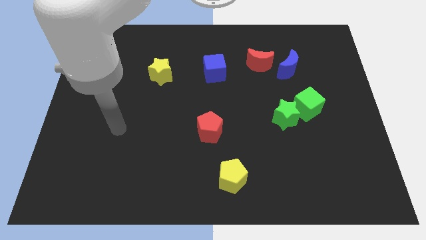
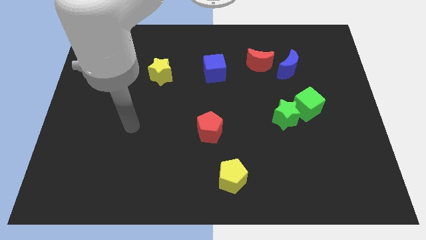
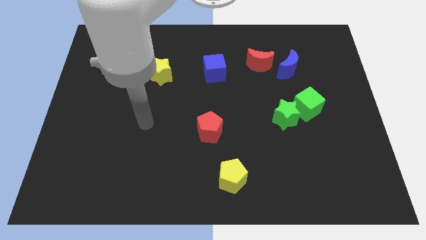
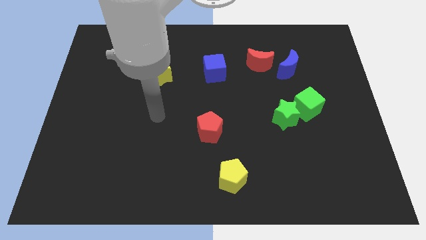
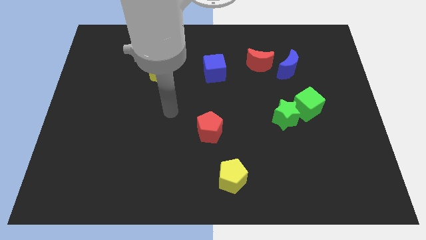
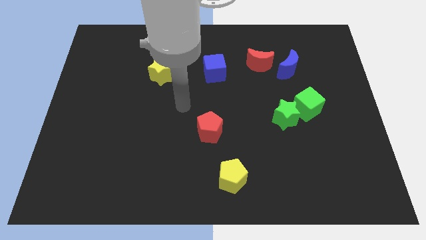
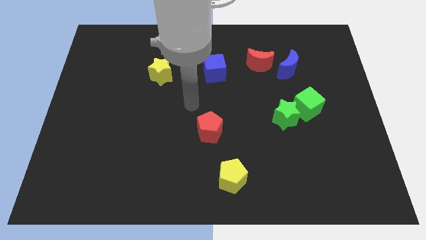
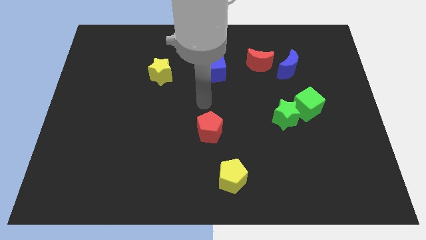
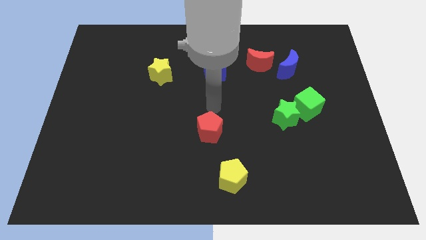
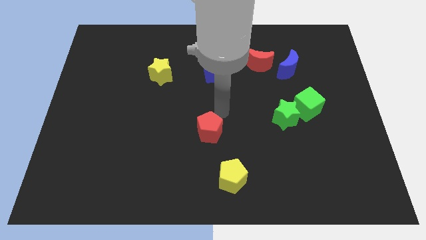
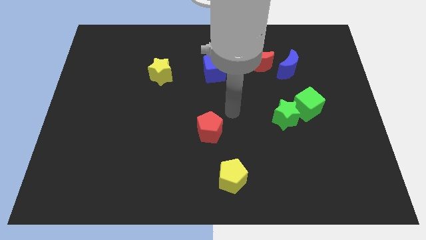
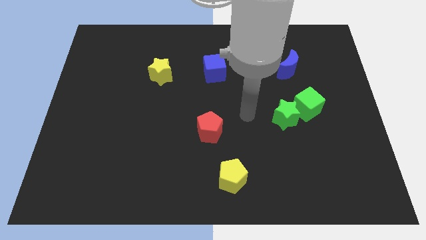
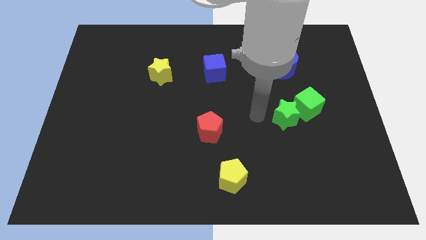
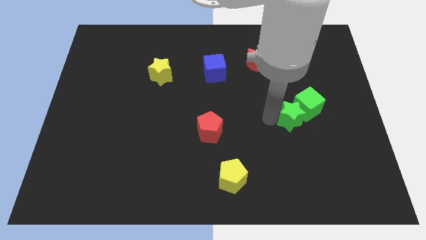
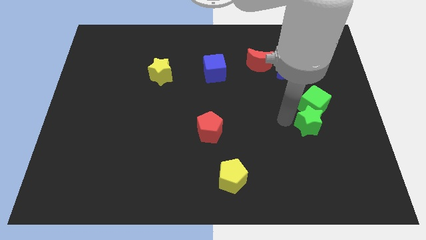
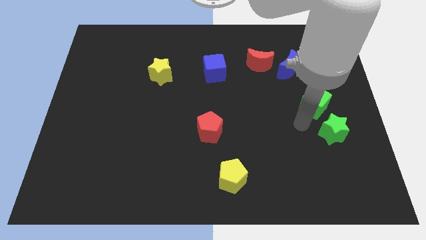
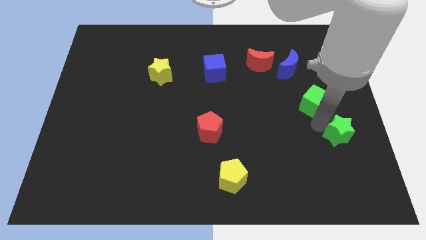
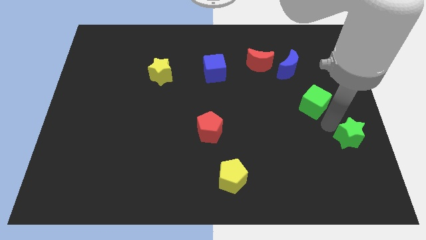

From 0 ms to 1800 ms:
separate the green cube from the green star

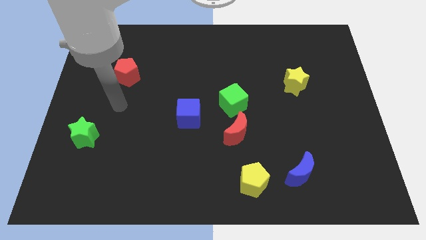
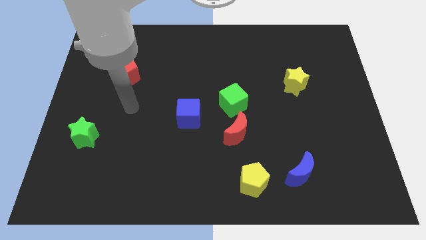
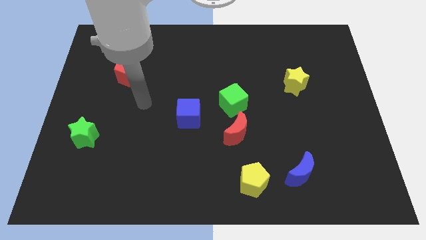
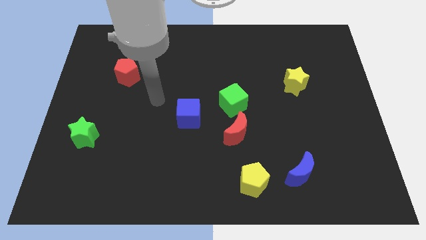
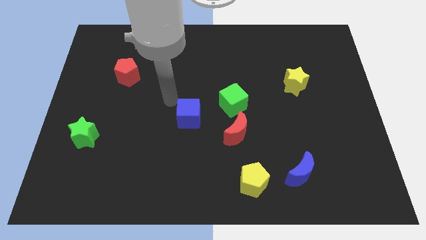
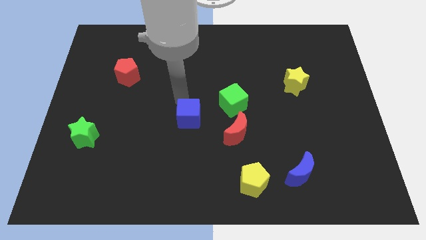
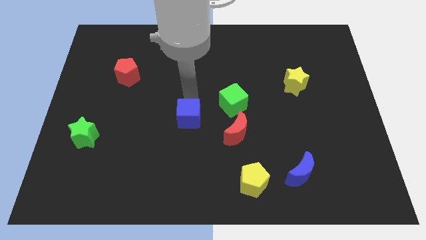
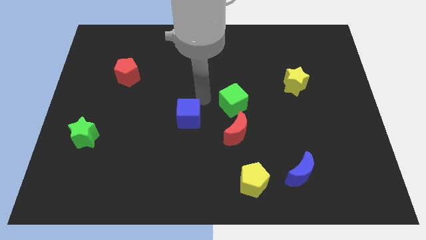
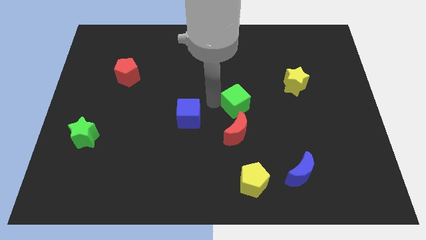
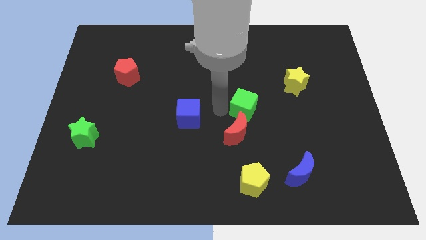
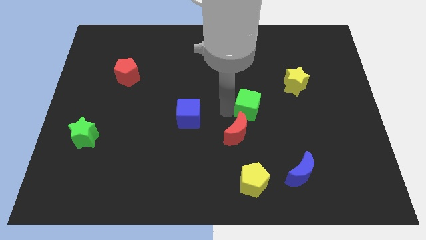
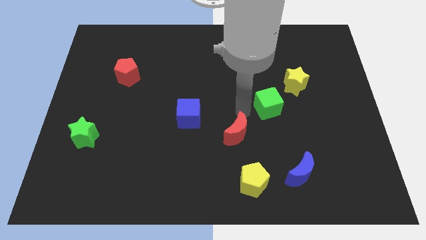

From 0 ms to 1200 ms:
pull the red moon apart from the green cube

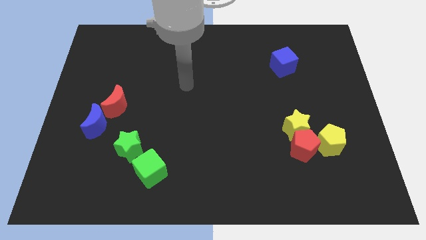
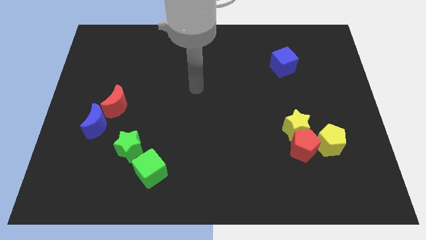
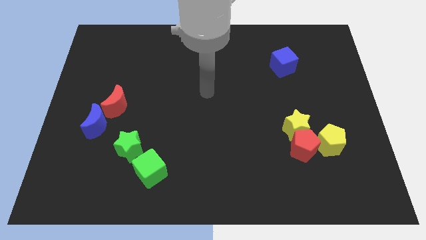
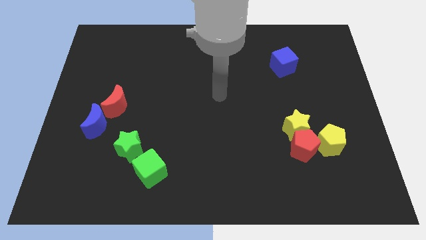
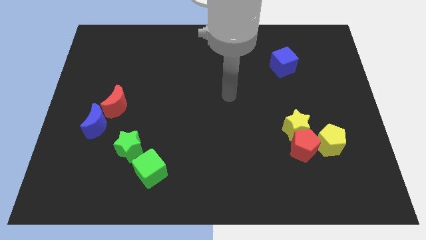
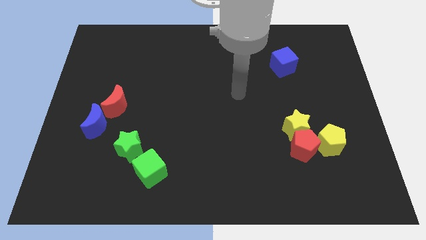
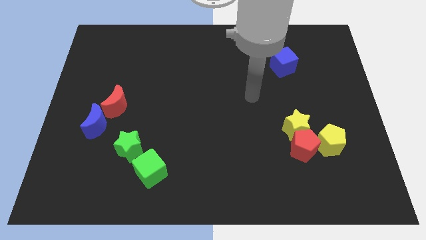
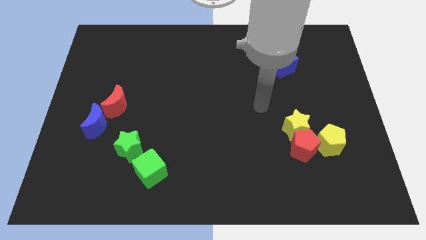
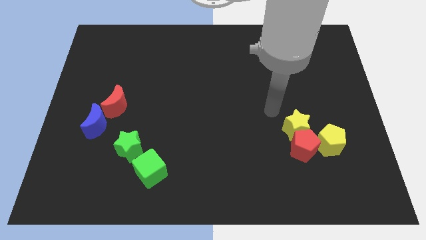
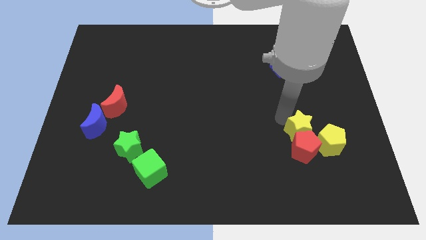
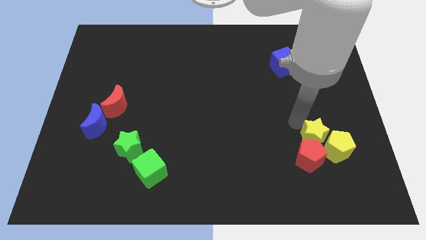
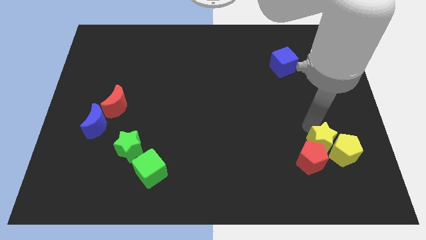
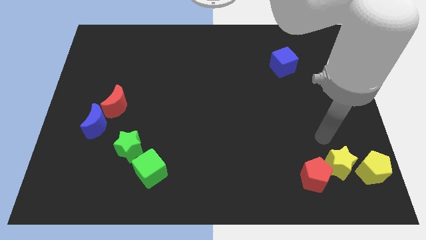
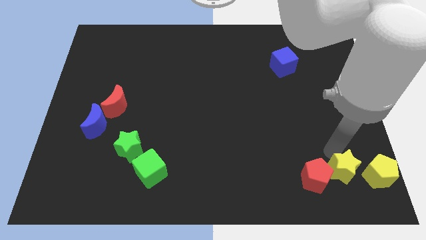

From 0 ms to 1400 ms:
separate the red pentagon from the yellow star and yellow pentagon

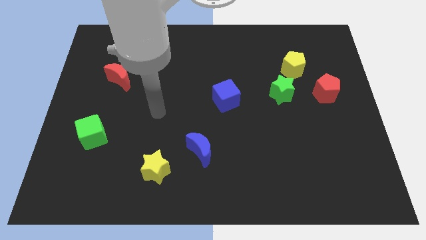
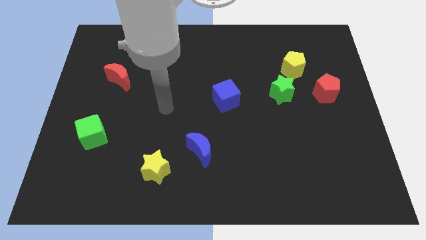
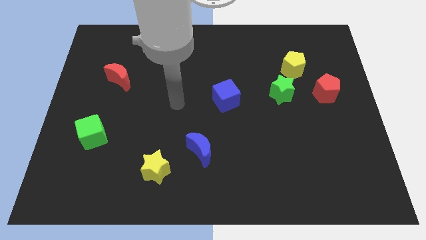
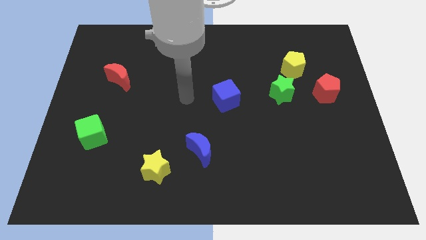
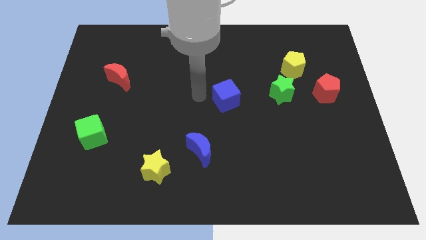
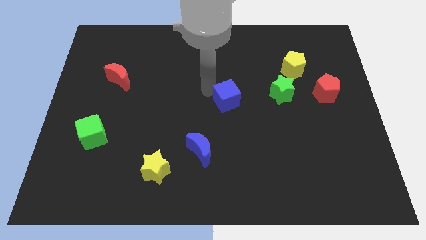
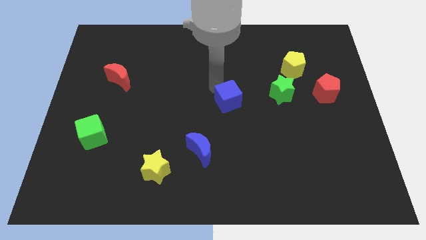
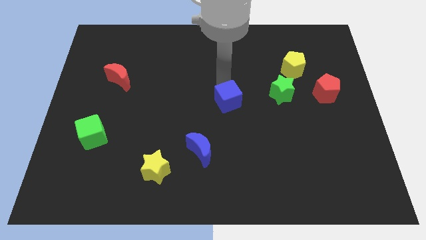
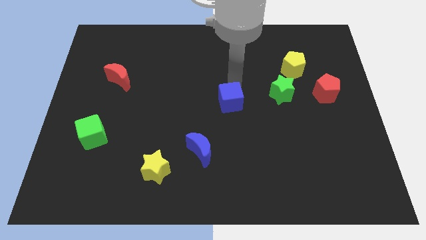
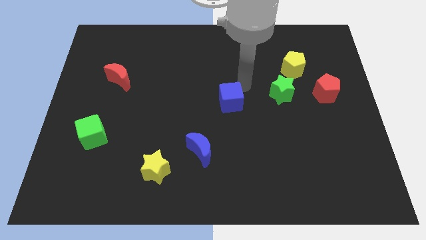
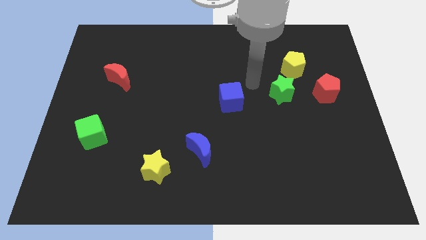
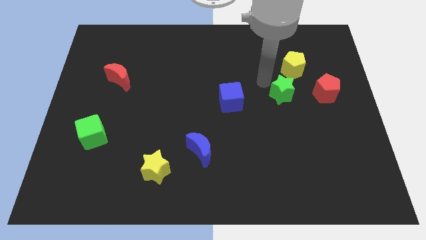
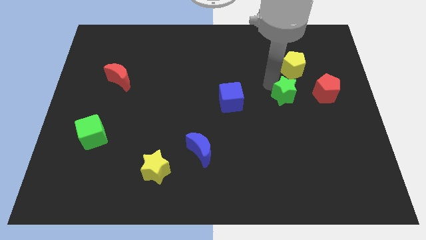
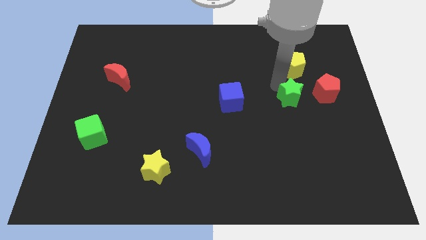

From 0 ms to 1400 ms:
pull the yellow pentagon apart from the green star

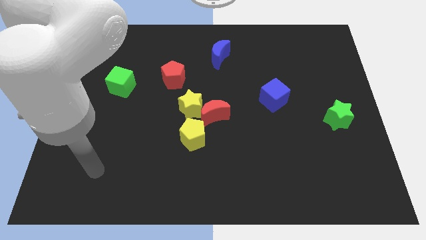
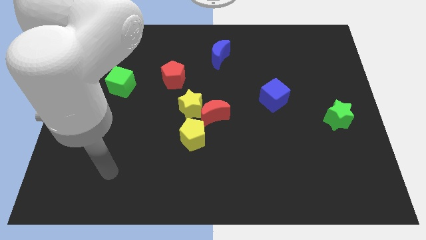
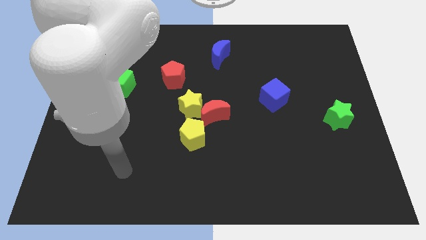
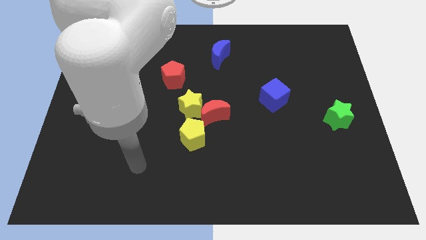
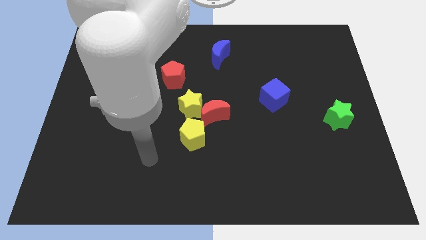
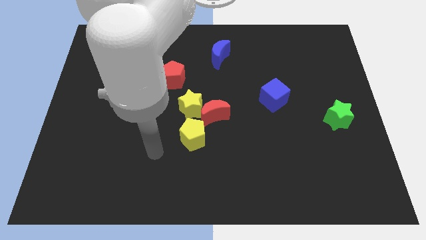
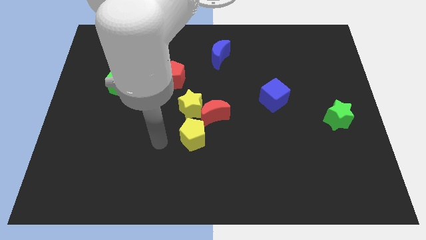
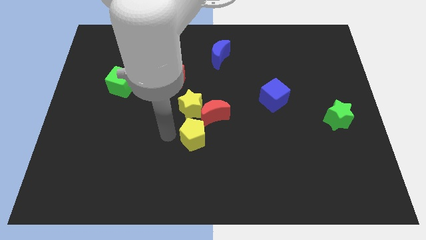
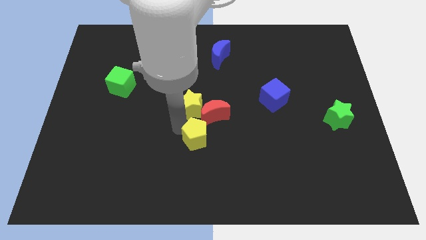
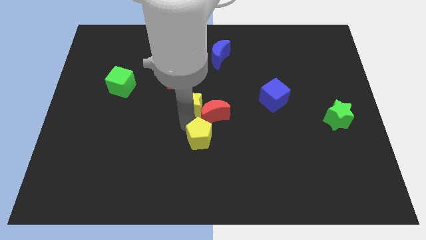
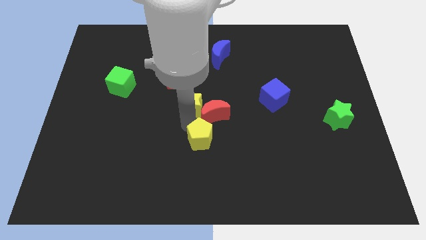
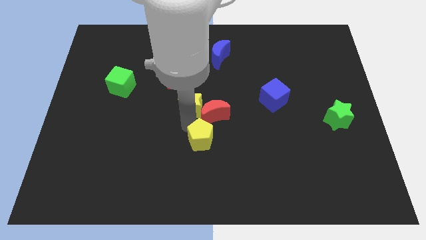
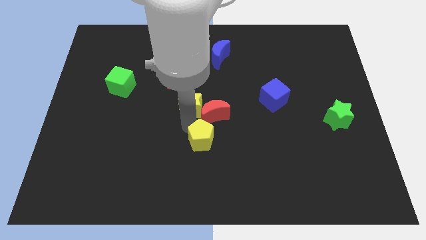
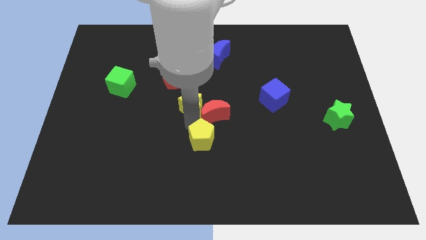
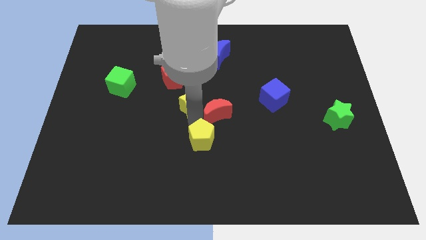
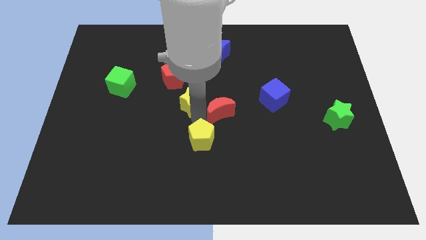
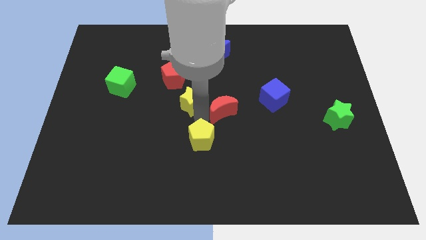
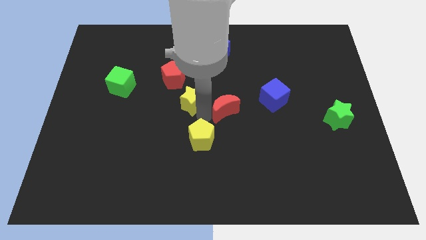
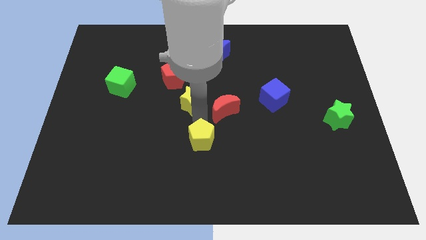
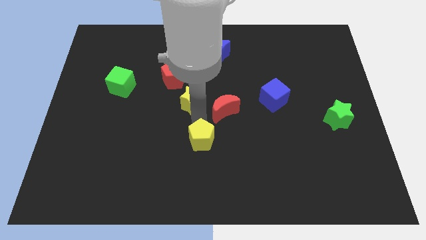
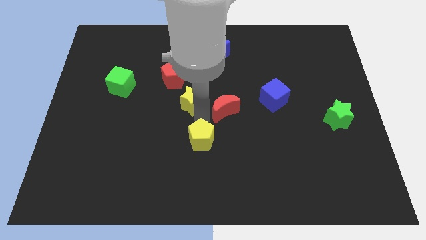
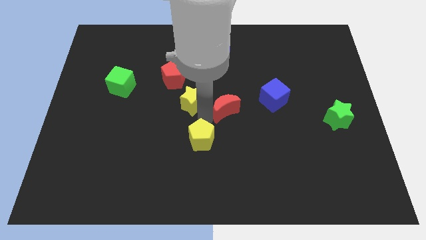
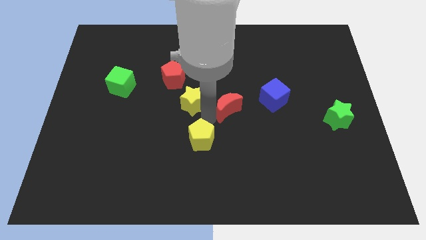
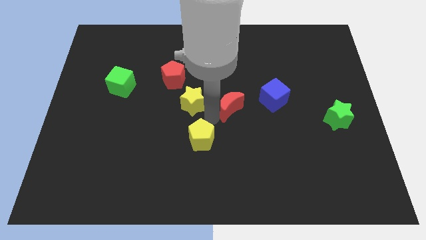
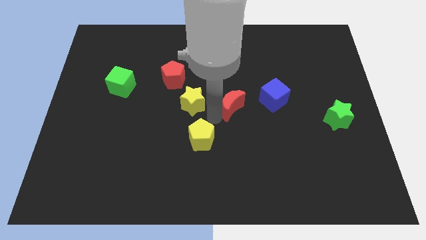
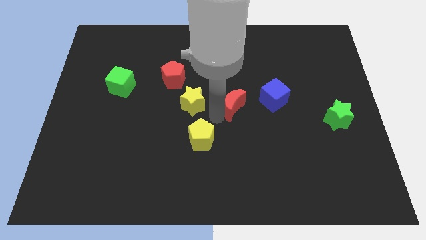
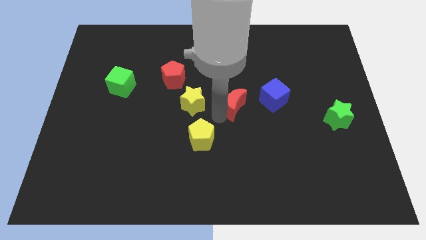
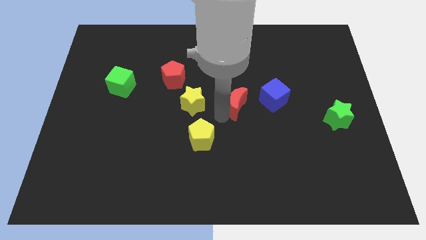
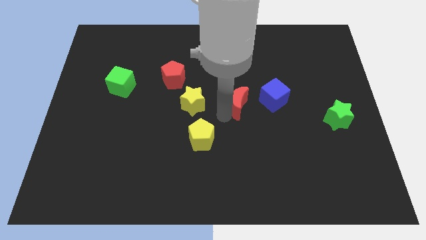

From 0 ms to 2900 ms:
pull the red moon apart from the yellow star and yellow pentagon

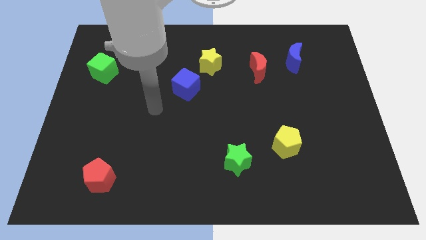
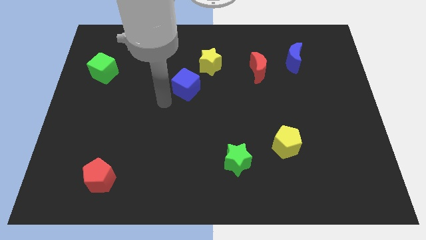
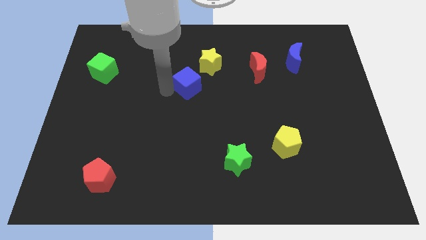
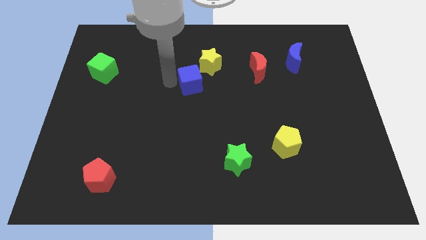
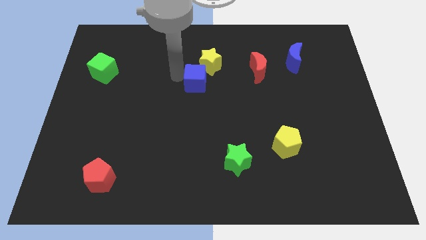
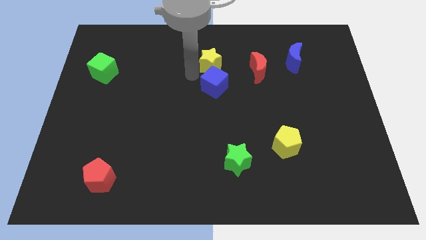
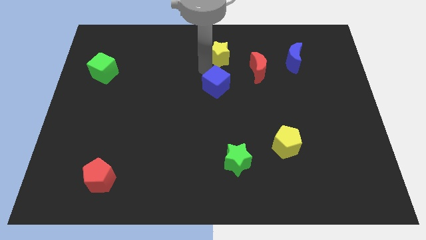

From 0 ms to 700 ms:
pull the blue cube apart from the yellow star

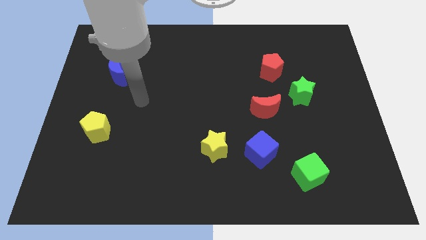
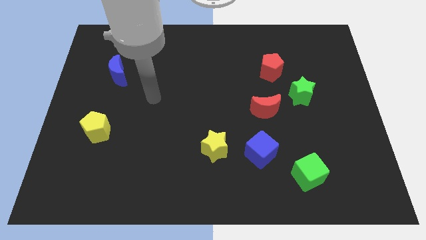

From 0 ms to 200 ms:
move the red moon away from the green star
